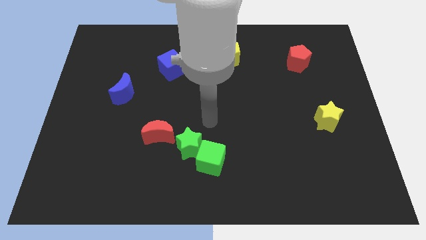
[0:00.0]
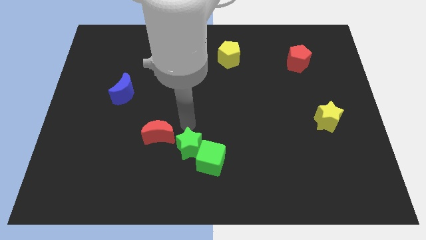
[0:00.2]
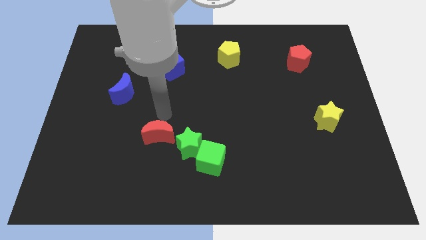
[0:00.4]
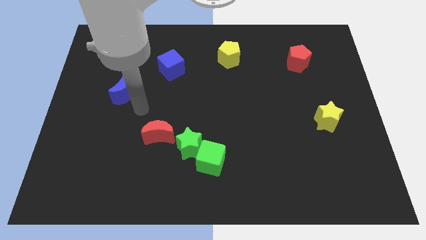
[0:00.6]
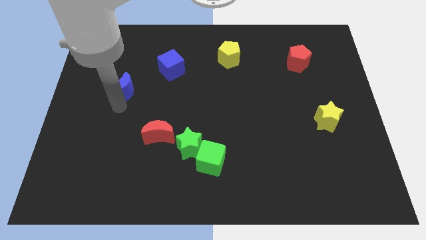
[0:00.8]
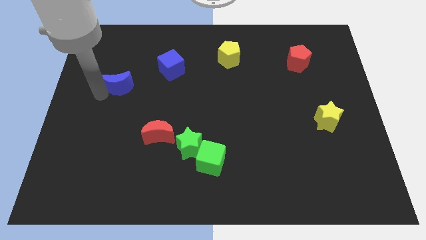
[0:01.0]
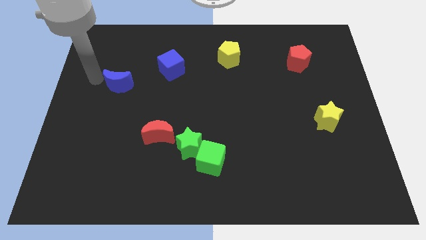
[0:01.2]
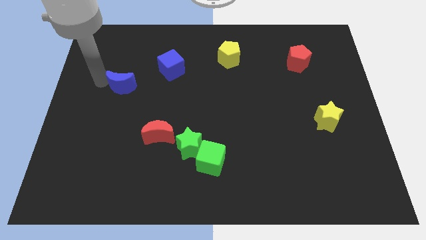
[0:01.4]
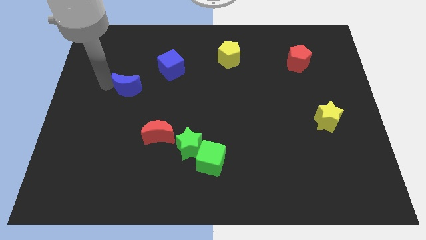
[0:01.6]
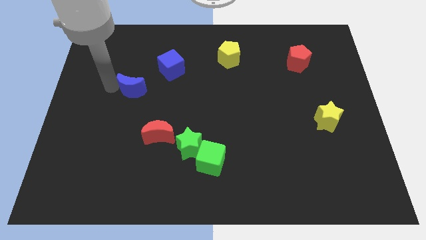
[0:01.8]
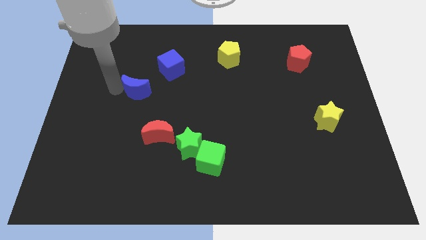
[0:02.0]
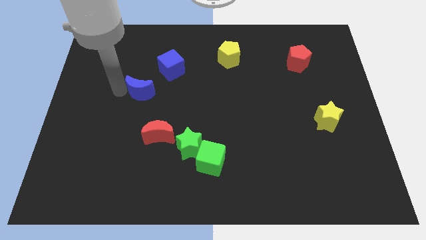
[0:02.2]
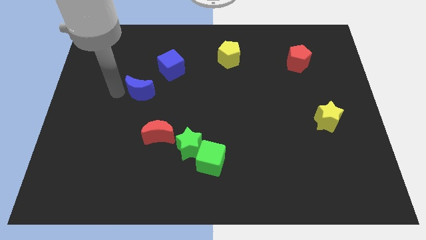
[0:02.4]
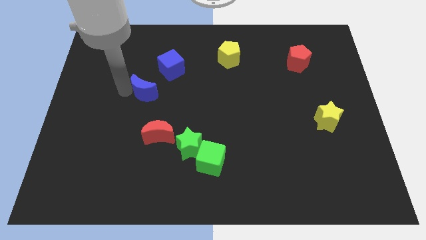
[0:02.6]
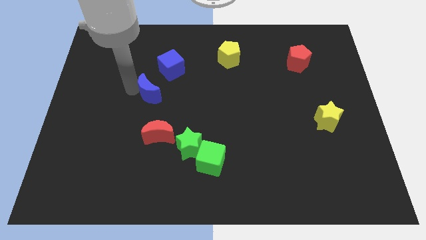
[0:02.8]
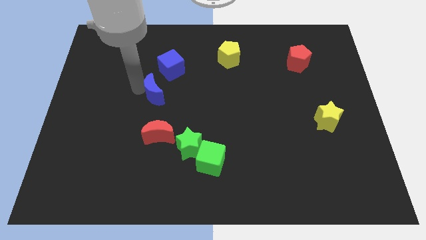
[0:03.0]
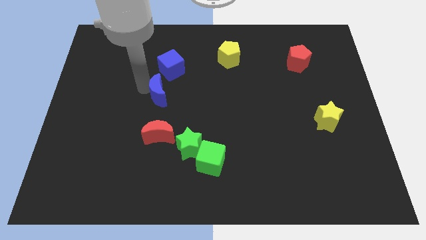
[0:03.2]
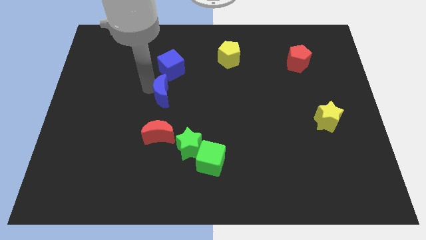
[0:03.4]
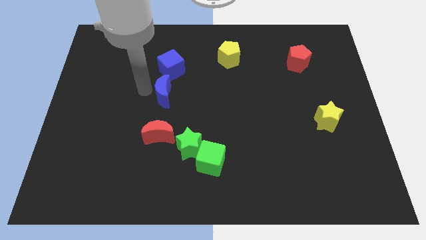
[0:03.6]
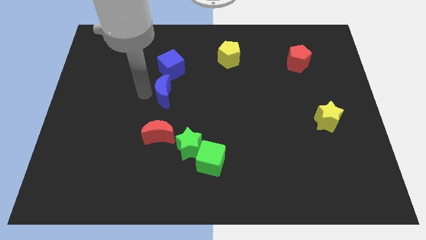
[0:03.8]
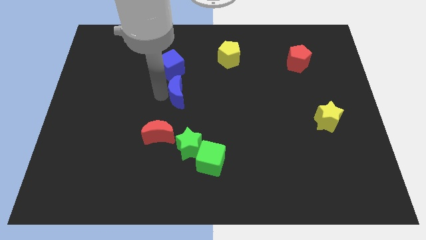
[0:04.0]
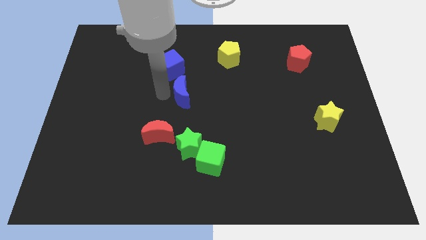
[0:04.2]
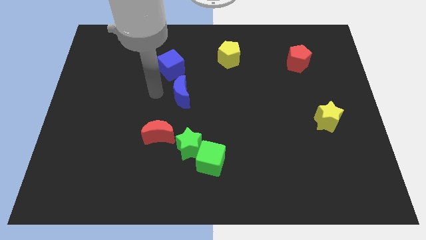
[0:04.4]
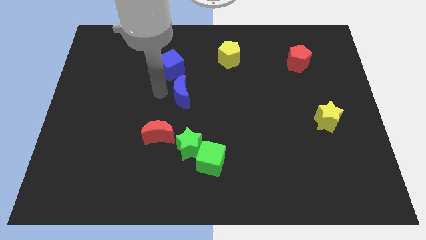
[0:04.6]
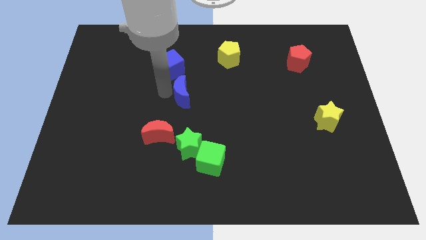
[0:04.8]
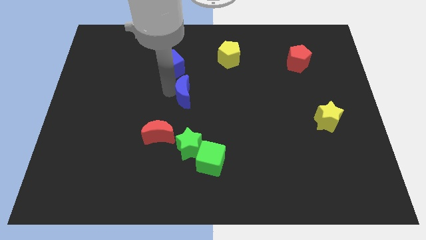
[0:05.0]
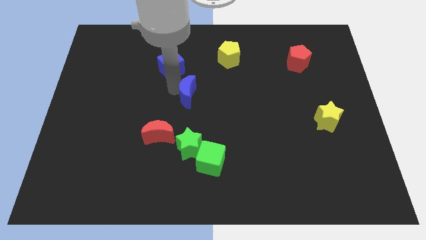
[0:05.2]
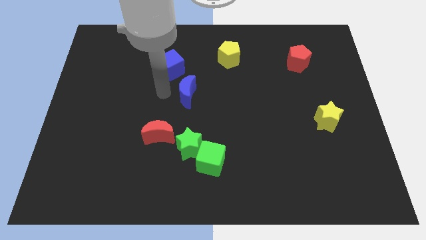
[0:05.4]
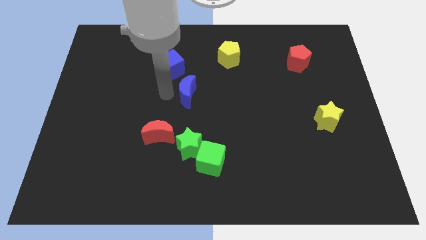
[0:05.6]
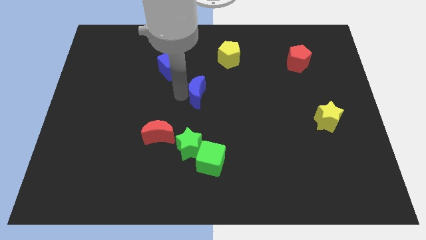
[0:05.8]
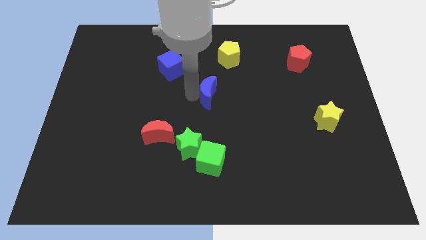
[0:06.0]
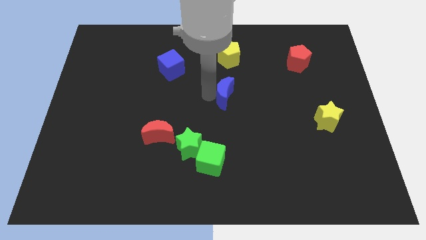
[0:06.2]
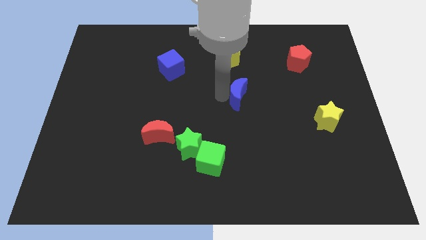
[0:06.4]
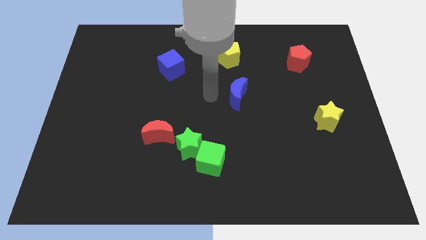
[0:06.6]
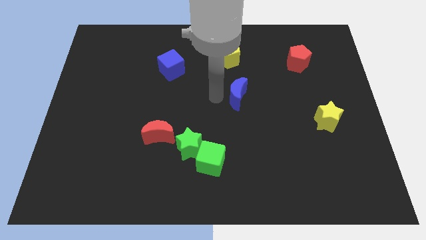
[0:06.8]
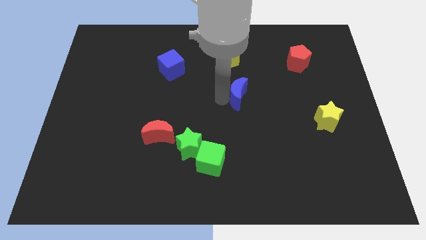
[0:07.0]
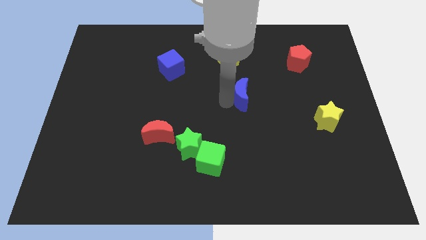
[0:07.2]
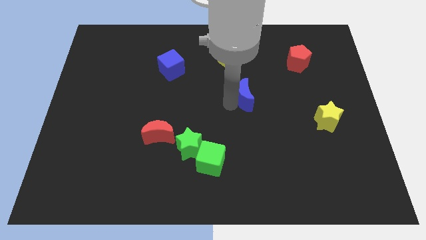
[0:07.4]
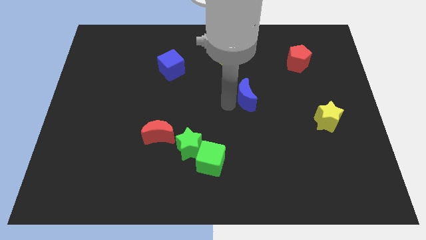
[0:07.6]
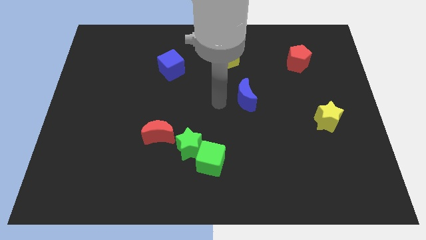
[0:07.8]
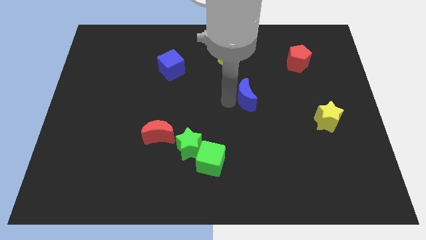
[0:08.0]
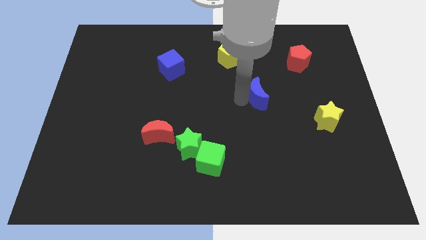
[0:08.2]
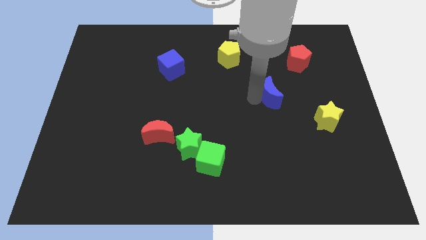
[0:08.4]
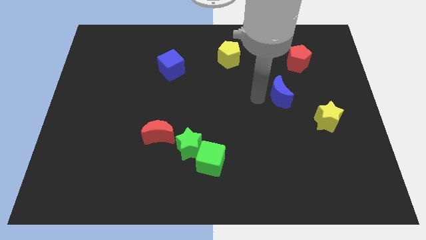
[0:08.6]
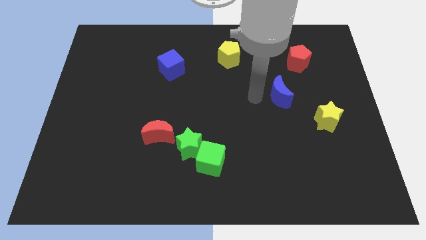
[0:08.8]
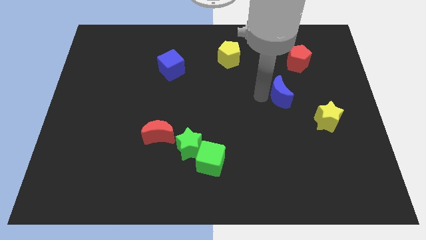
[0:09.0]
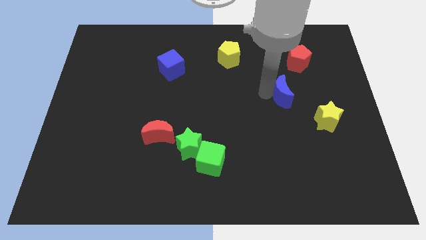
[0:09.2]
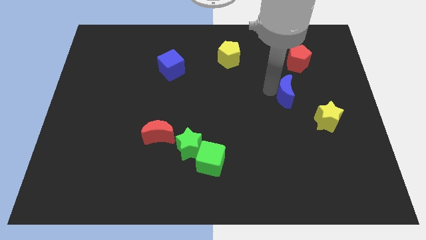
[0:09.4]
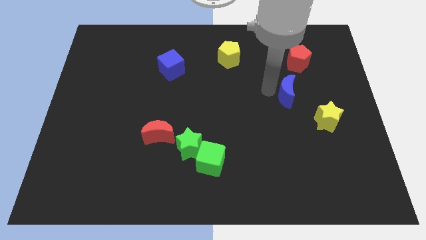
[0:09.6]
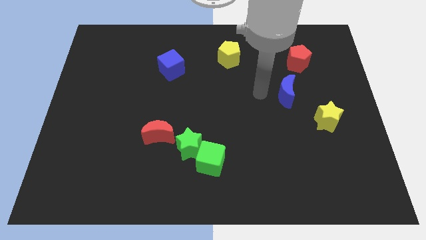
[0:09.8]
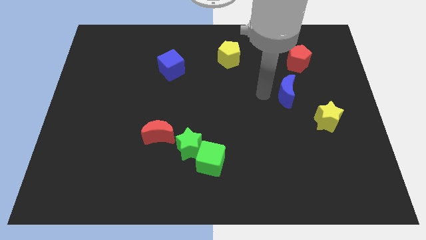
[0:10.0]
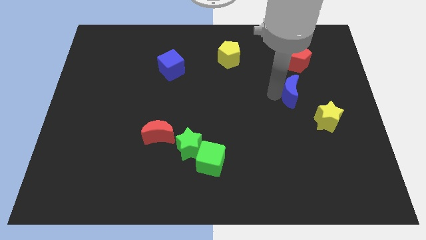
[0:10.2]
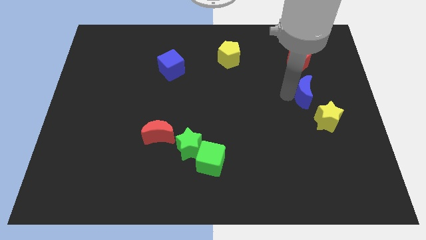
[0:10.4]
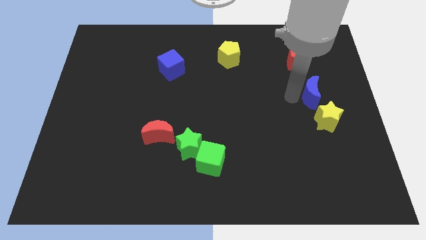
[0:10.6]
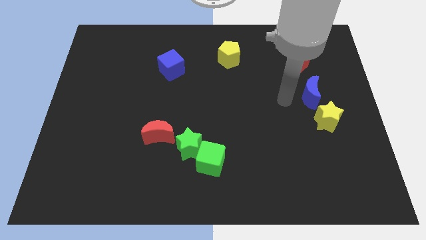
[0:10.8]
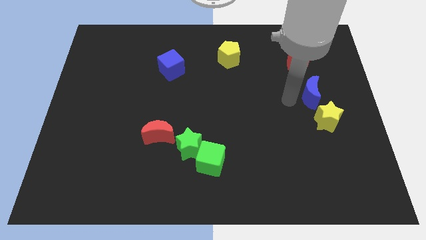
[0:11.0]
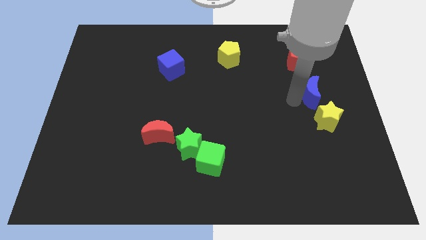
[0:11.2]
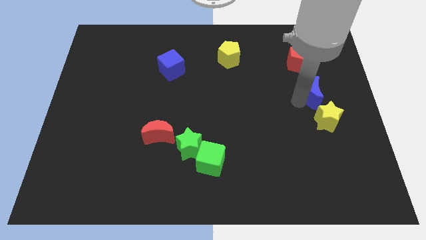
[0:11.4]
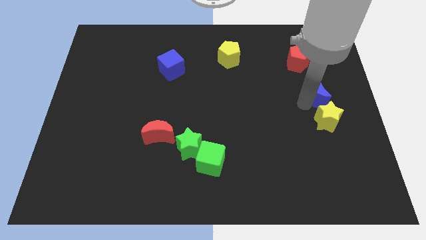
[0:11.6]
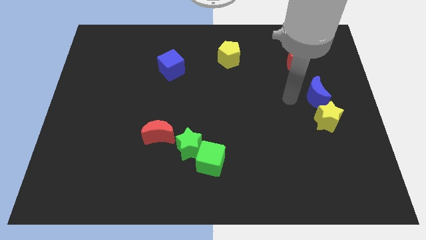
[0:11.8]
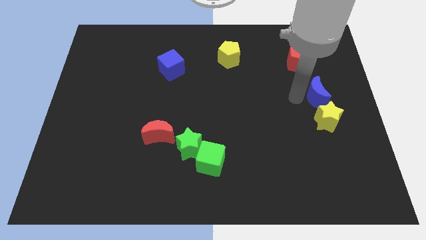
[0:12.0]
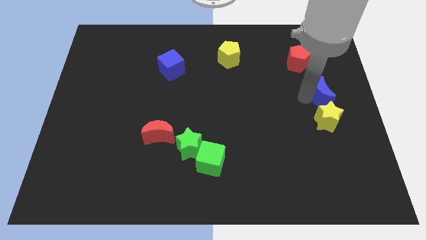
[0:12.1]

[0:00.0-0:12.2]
move the blue moon to the right side of the board
